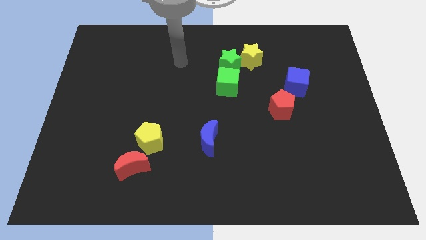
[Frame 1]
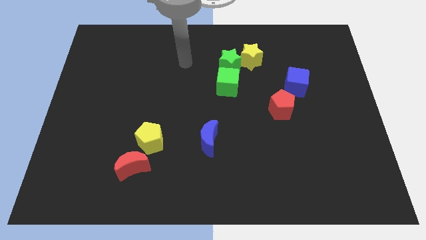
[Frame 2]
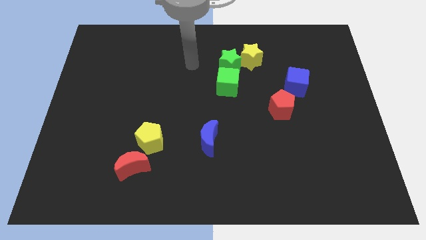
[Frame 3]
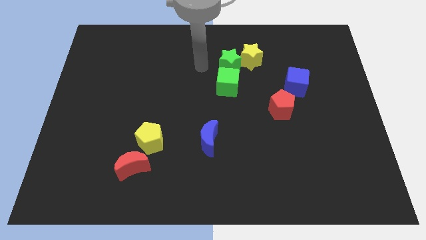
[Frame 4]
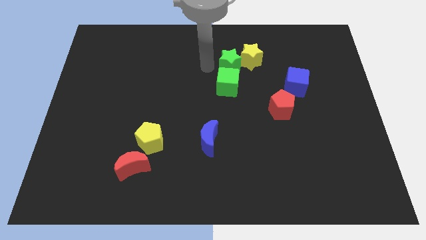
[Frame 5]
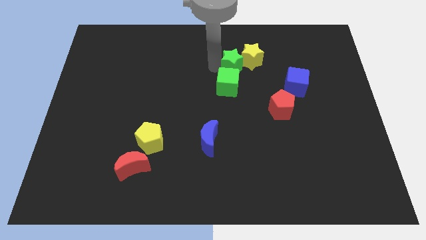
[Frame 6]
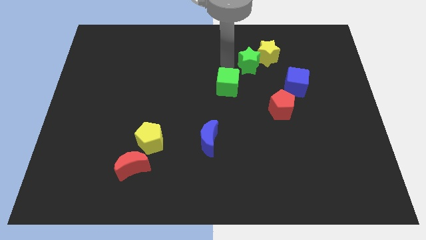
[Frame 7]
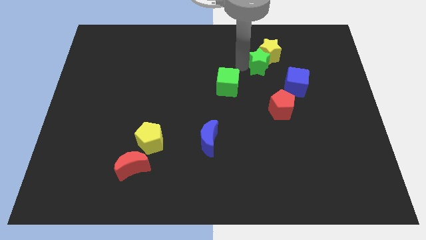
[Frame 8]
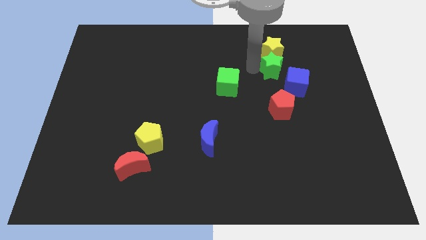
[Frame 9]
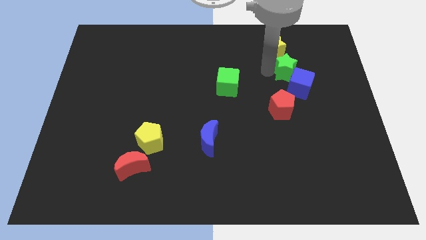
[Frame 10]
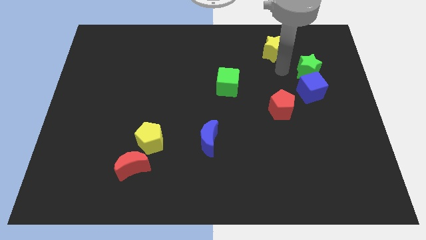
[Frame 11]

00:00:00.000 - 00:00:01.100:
pull the yellow star apart from the green star

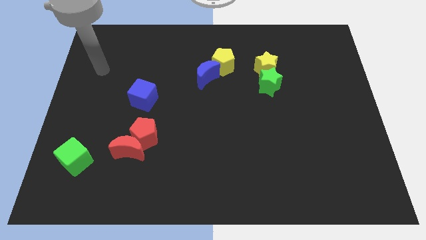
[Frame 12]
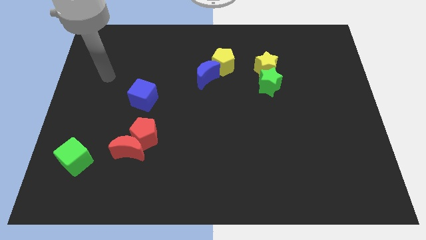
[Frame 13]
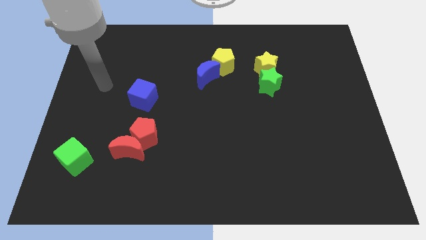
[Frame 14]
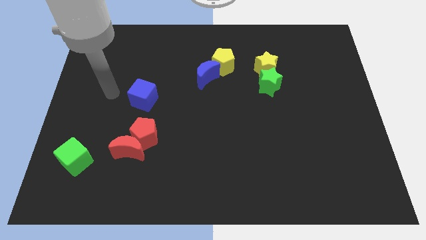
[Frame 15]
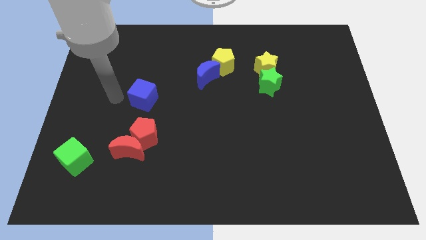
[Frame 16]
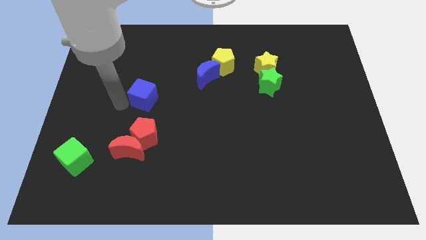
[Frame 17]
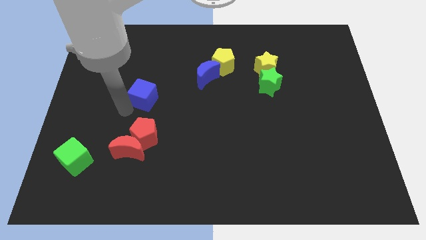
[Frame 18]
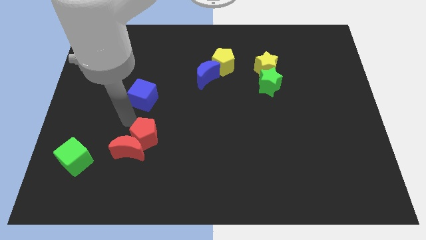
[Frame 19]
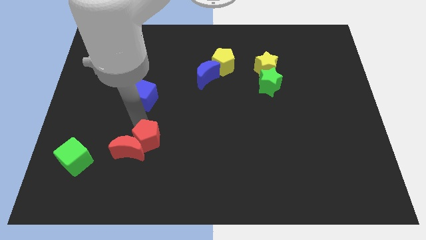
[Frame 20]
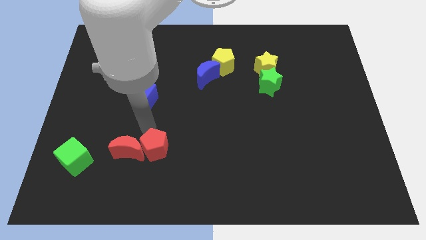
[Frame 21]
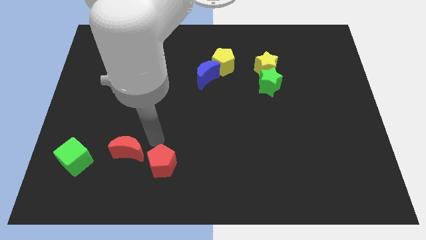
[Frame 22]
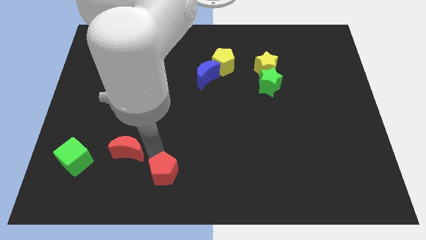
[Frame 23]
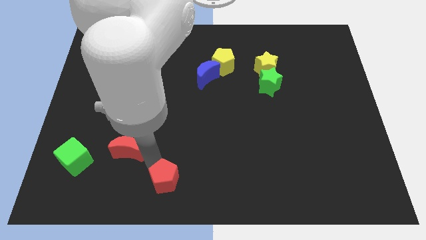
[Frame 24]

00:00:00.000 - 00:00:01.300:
pull the red moon apart from the red pentagon

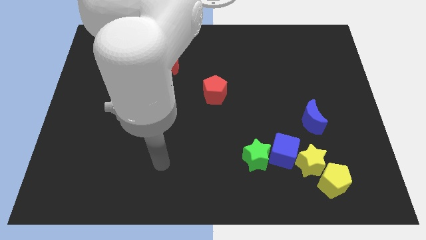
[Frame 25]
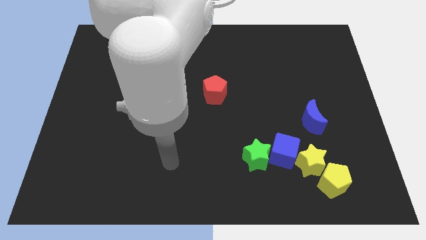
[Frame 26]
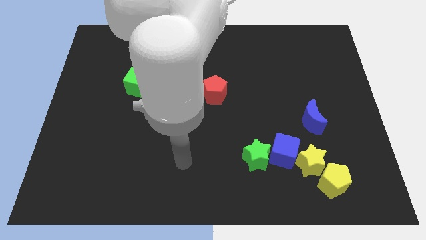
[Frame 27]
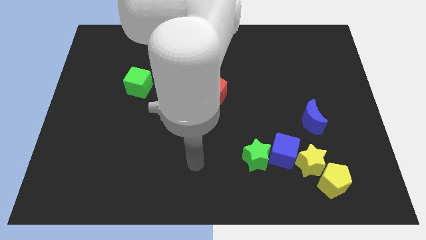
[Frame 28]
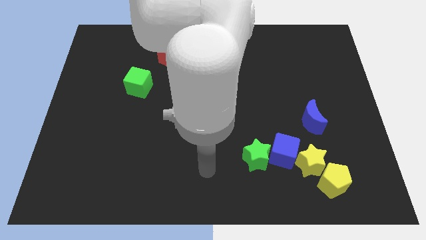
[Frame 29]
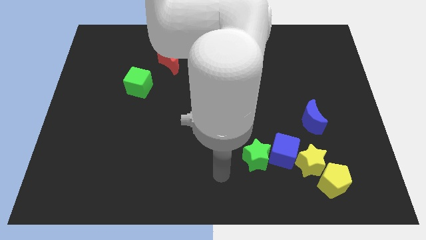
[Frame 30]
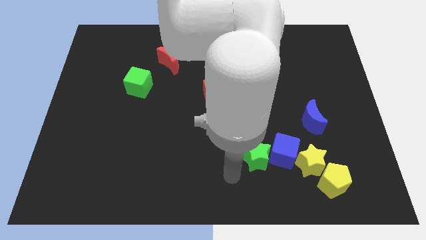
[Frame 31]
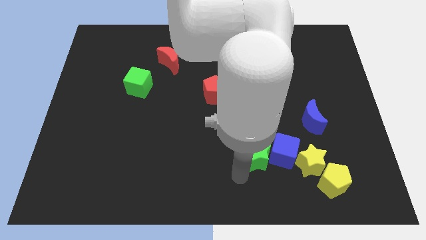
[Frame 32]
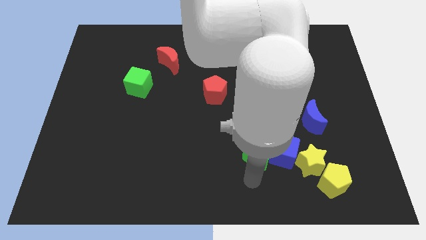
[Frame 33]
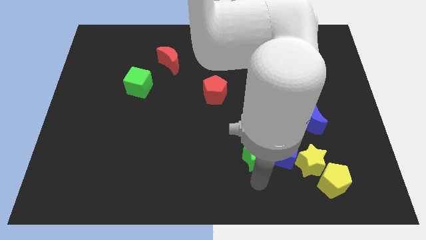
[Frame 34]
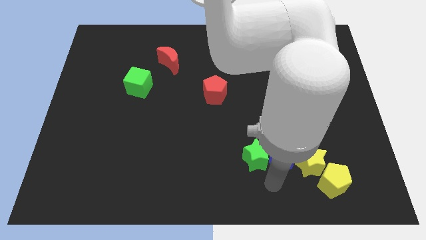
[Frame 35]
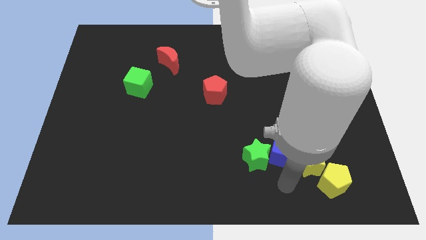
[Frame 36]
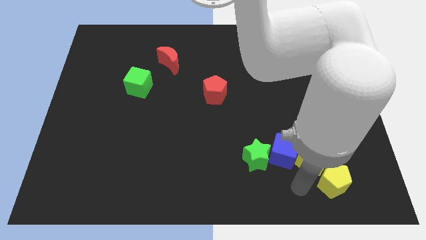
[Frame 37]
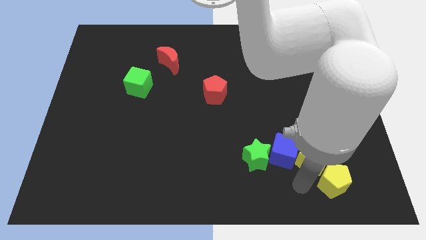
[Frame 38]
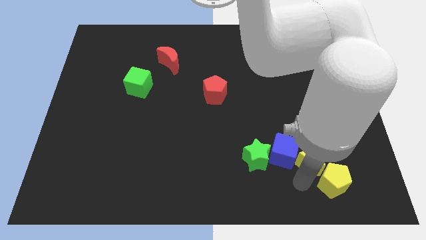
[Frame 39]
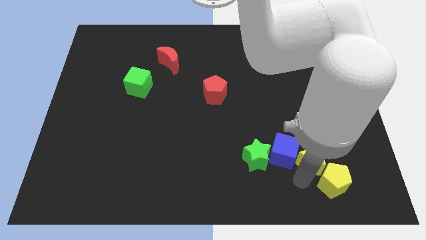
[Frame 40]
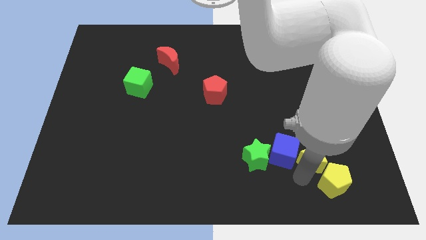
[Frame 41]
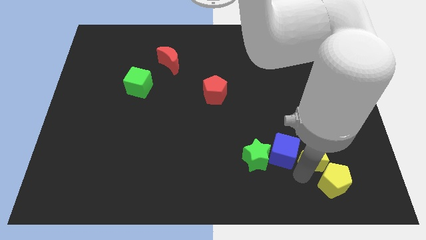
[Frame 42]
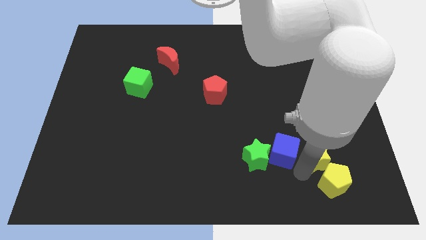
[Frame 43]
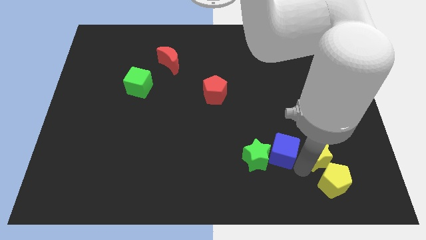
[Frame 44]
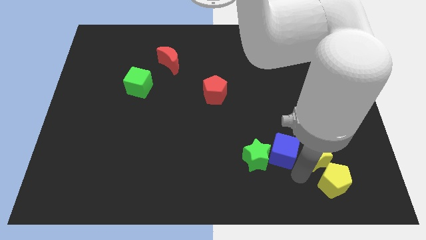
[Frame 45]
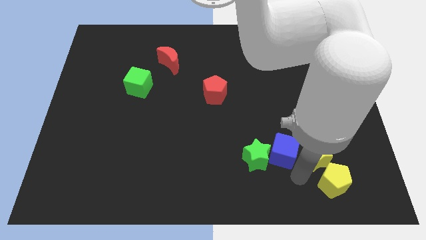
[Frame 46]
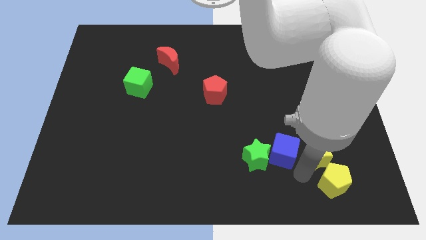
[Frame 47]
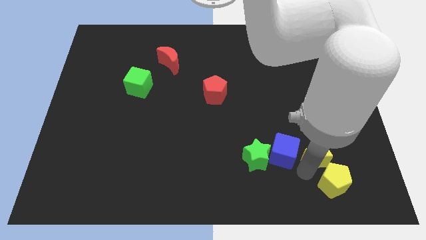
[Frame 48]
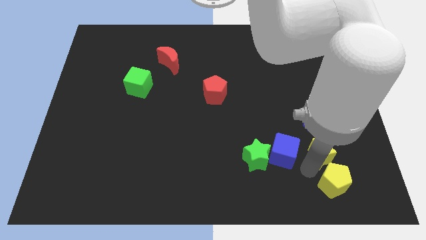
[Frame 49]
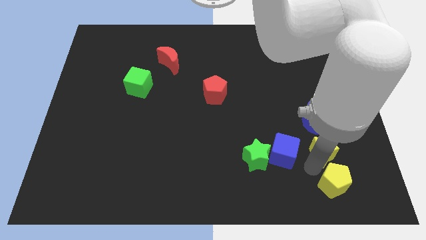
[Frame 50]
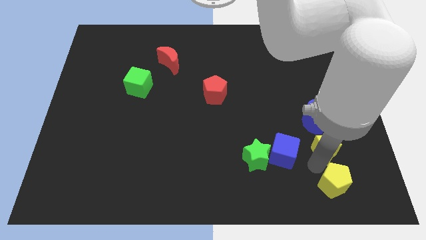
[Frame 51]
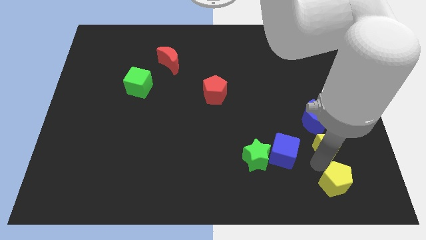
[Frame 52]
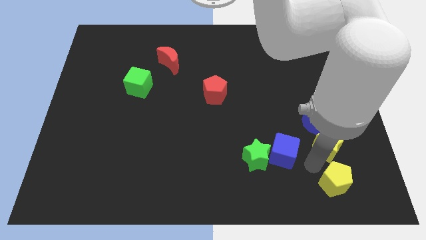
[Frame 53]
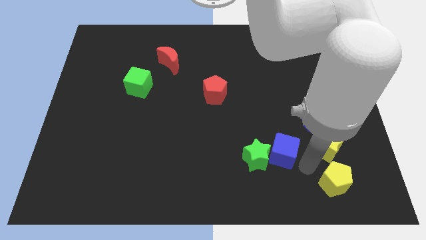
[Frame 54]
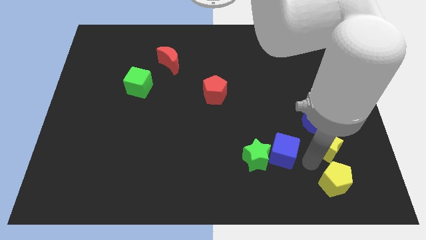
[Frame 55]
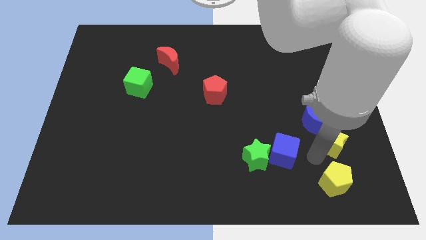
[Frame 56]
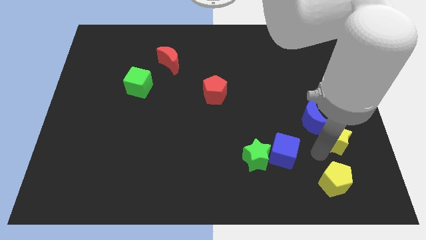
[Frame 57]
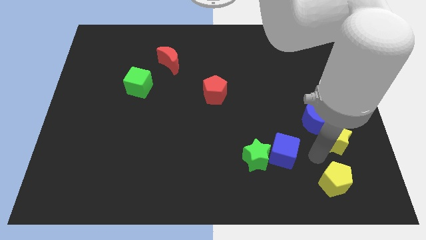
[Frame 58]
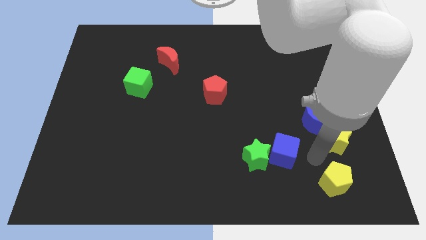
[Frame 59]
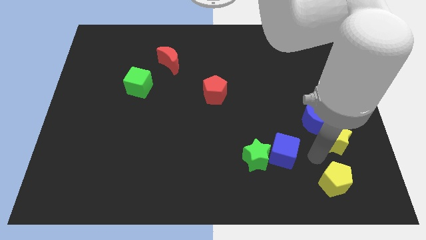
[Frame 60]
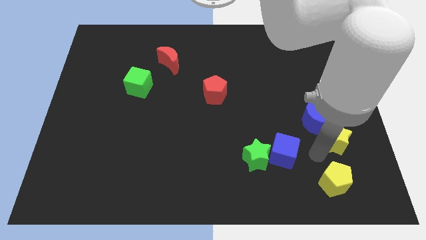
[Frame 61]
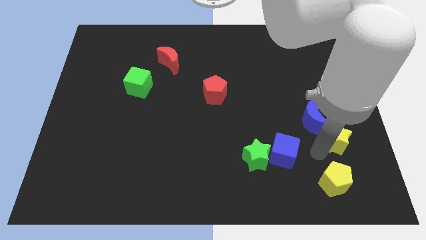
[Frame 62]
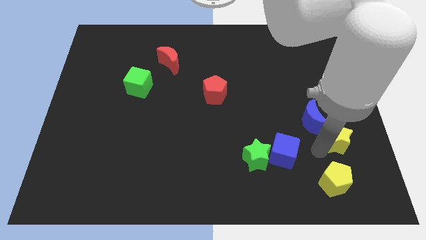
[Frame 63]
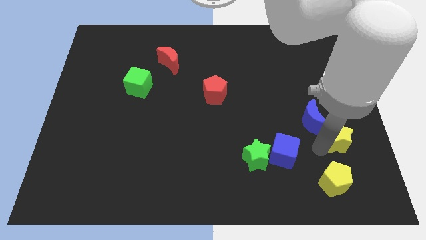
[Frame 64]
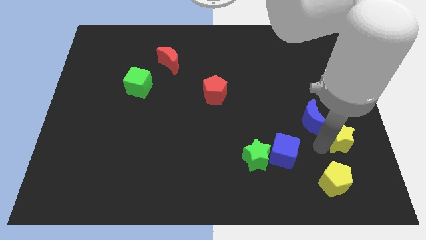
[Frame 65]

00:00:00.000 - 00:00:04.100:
pull the yellow star apart from the blue cube and yellow pentagon

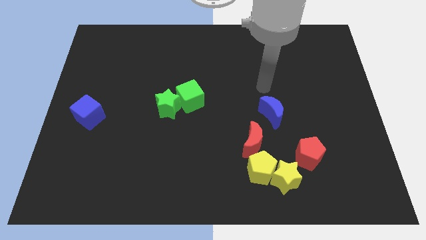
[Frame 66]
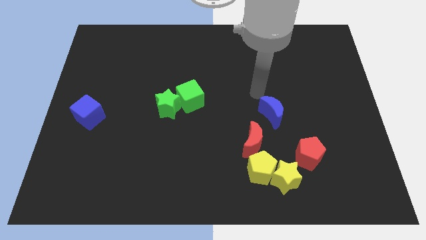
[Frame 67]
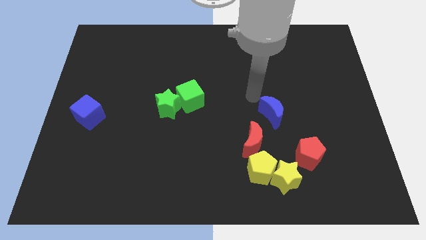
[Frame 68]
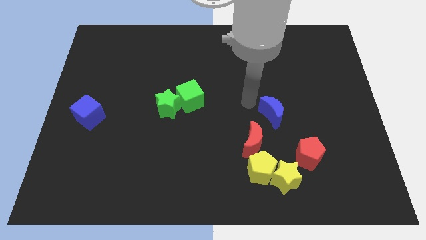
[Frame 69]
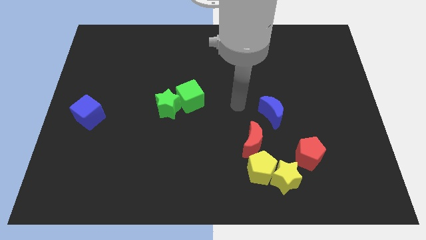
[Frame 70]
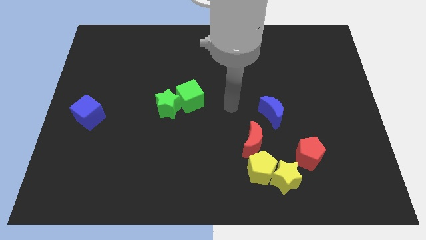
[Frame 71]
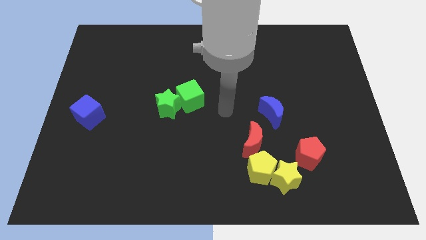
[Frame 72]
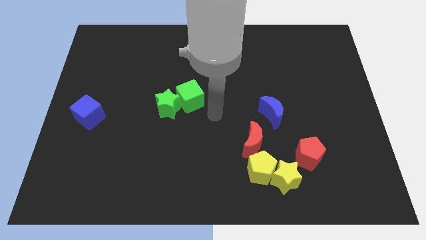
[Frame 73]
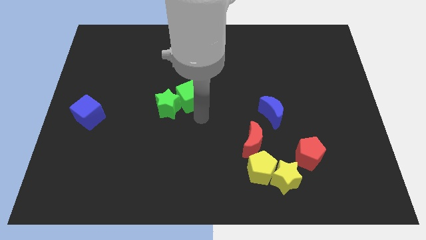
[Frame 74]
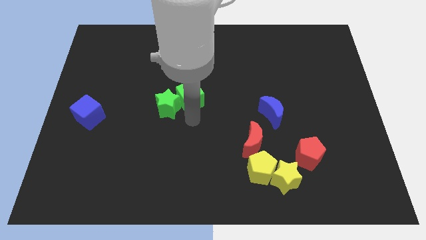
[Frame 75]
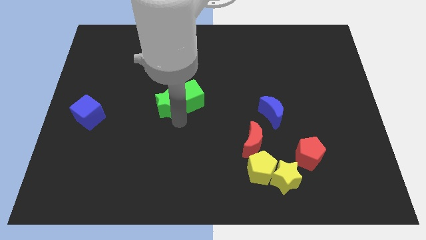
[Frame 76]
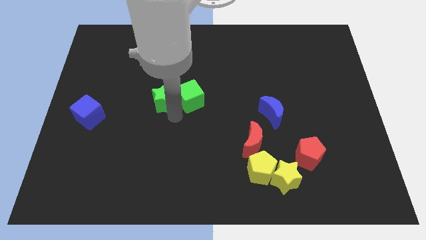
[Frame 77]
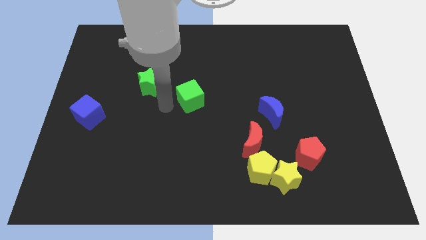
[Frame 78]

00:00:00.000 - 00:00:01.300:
move the green cube away from the green star

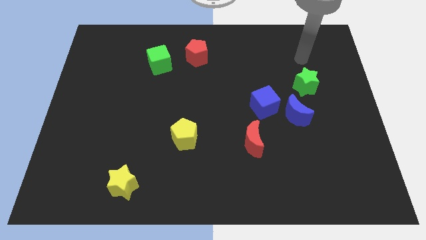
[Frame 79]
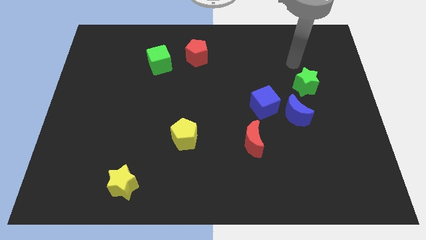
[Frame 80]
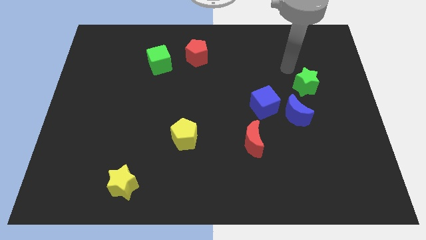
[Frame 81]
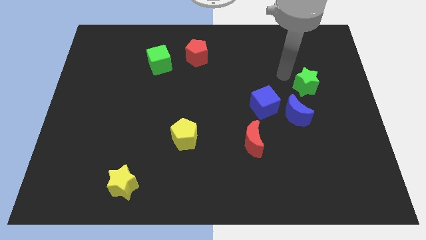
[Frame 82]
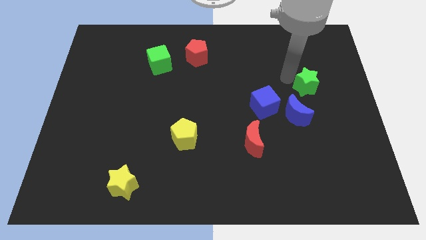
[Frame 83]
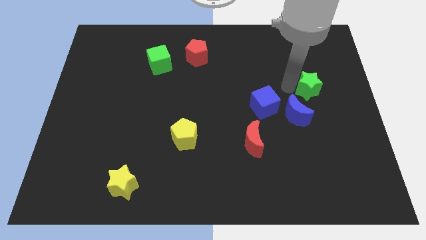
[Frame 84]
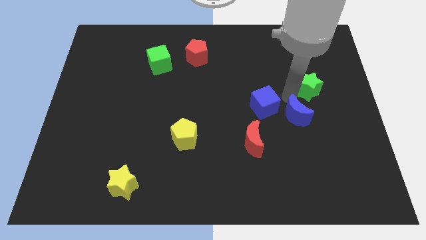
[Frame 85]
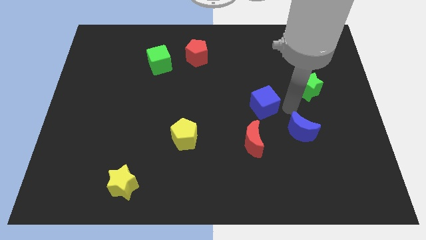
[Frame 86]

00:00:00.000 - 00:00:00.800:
separate the blue cube from the blue moon

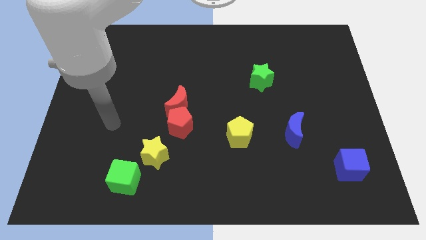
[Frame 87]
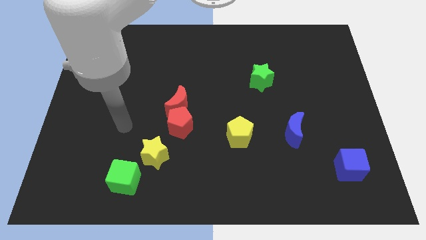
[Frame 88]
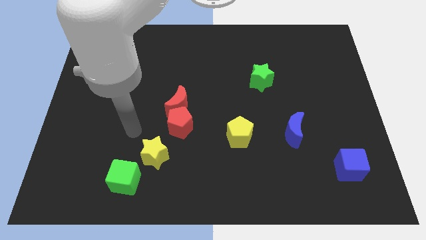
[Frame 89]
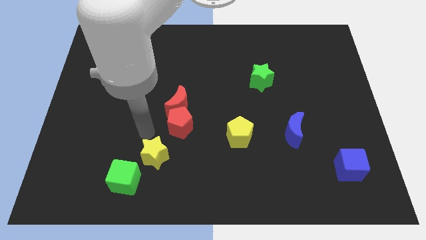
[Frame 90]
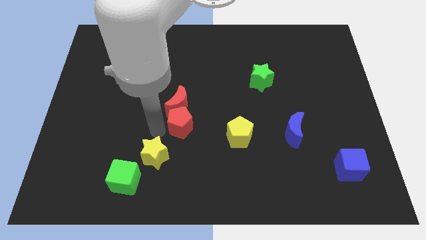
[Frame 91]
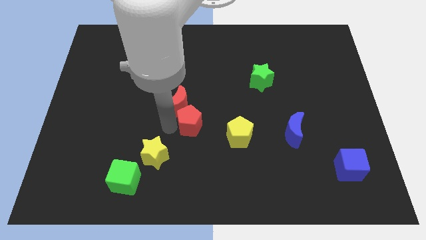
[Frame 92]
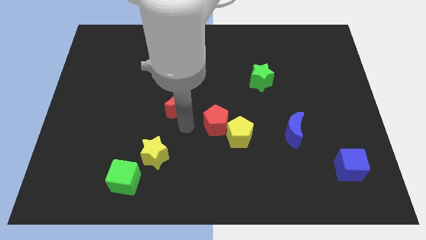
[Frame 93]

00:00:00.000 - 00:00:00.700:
separate the red moon from the red pentagon
